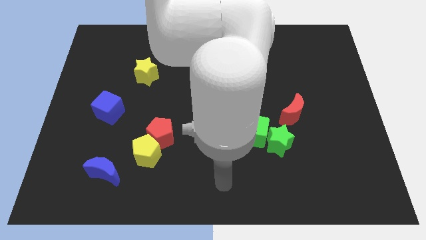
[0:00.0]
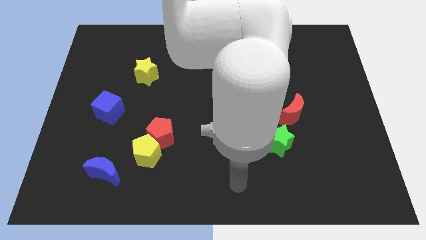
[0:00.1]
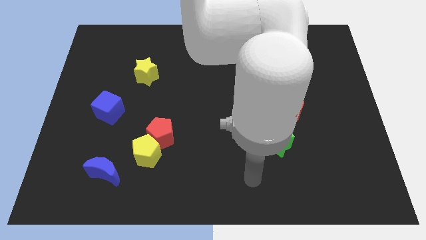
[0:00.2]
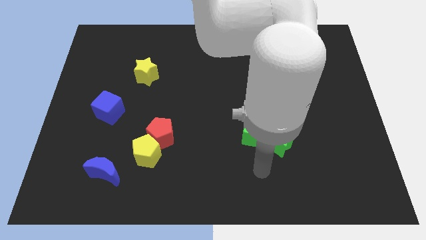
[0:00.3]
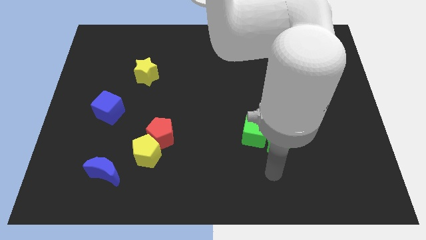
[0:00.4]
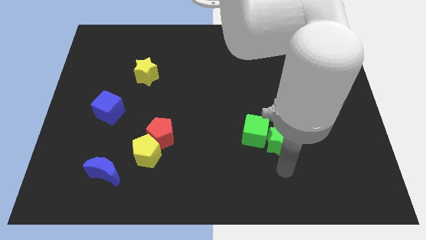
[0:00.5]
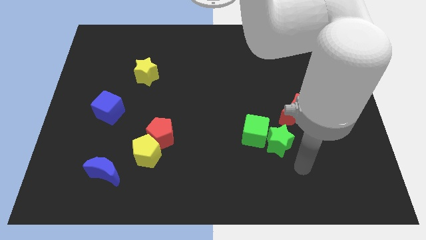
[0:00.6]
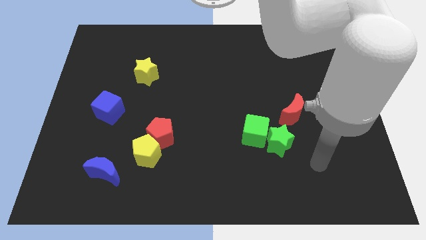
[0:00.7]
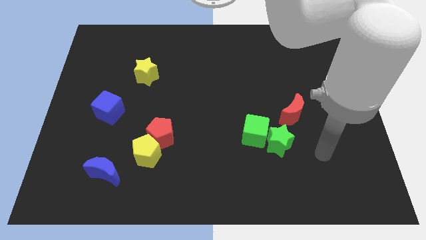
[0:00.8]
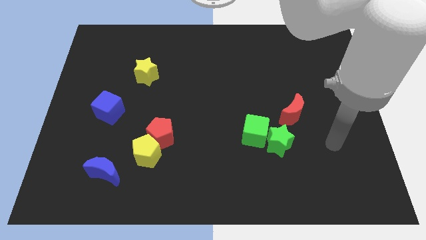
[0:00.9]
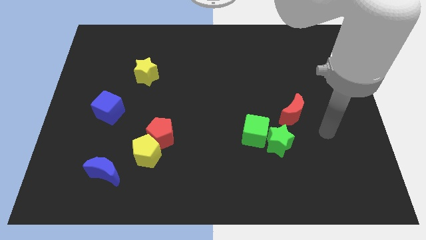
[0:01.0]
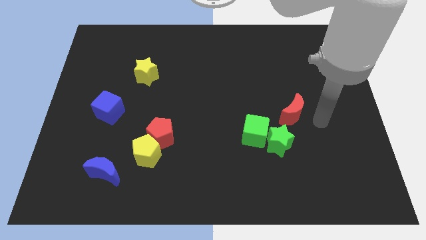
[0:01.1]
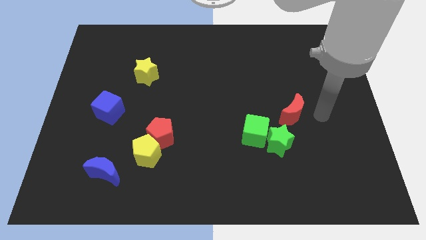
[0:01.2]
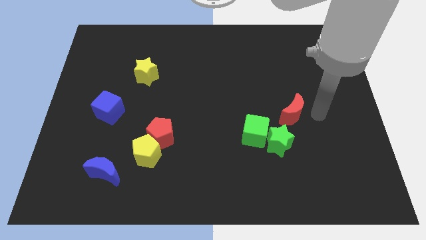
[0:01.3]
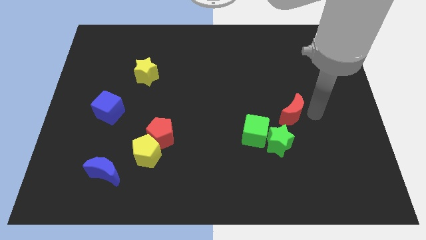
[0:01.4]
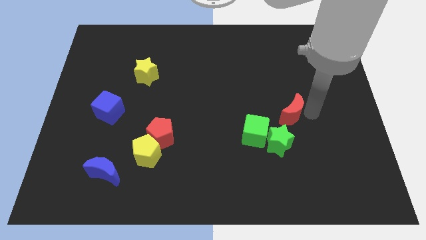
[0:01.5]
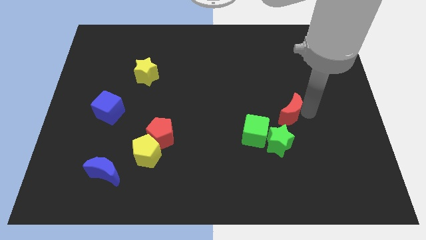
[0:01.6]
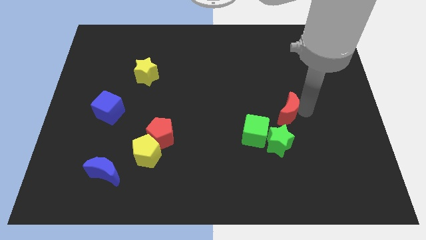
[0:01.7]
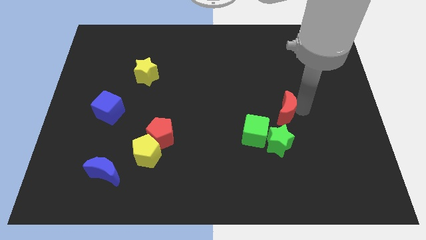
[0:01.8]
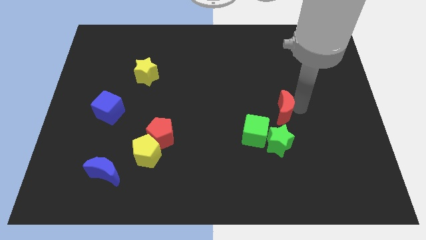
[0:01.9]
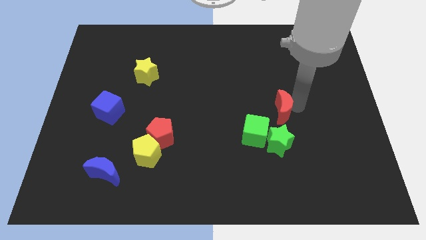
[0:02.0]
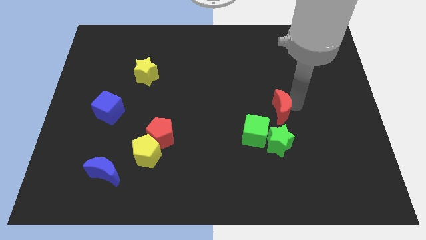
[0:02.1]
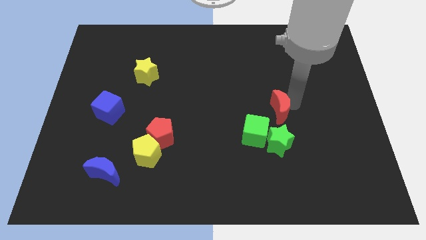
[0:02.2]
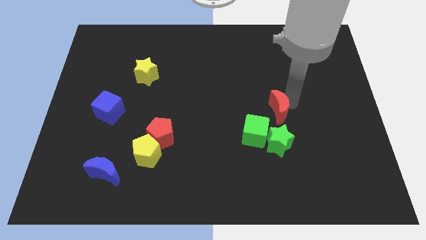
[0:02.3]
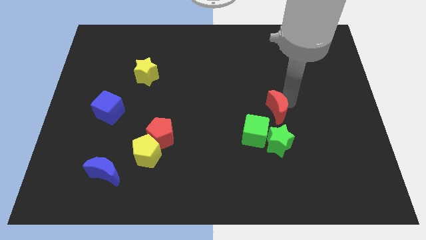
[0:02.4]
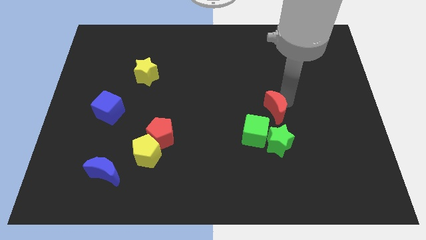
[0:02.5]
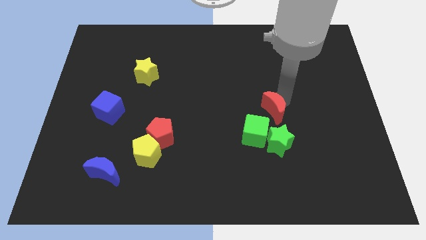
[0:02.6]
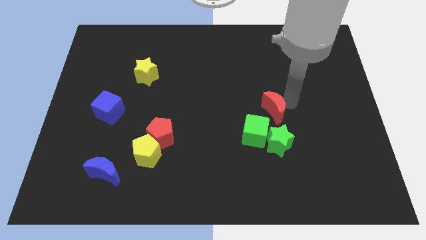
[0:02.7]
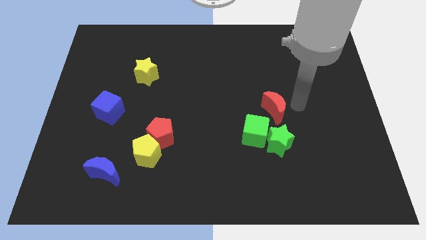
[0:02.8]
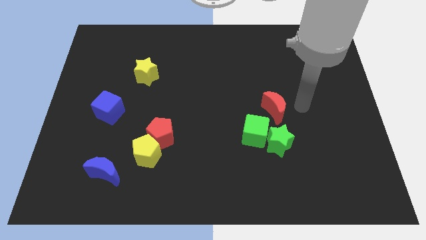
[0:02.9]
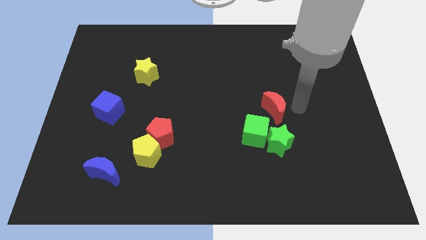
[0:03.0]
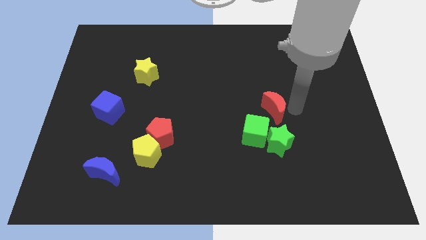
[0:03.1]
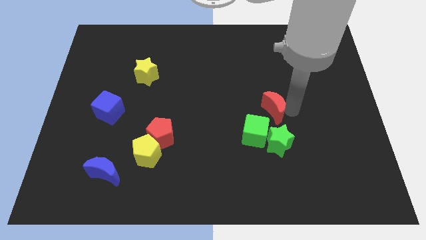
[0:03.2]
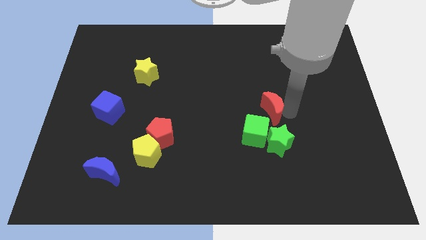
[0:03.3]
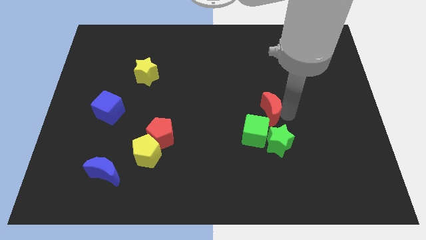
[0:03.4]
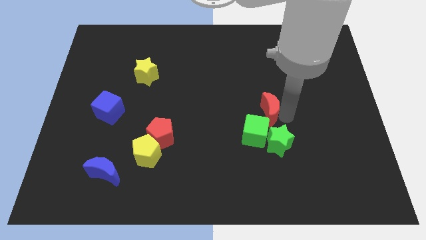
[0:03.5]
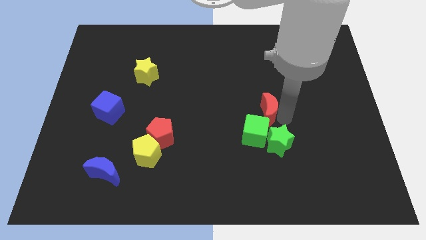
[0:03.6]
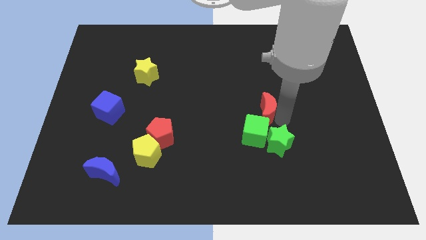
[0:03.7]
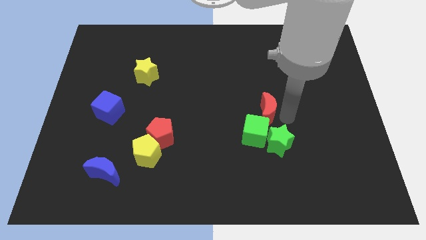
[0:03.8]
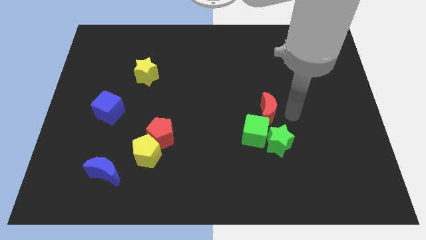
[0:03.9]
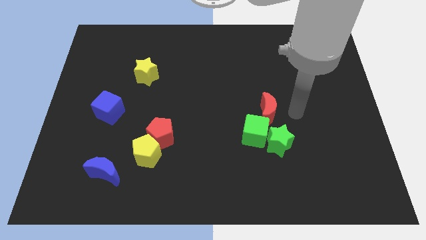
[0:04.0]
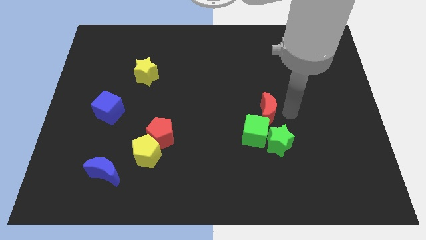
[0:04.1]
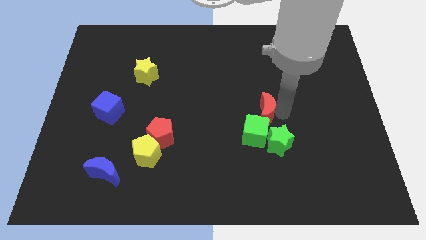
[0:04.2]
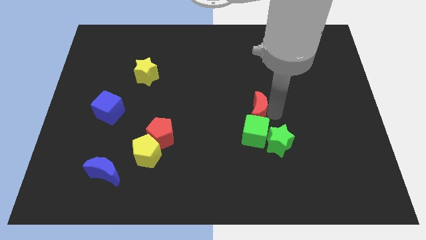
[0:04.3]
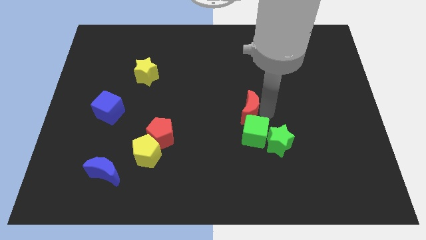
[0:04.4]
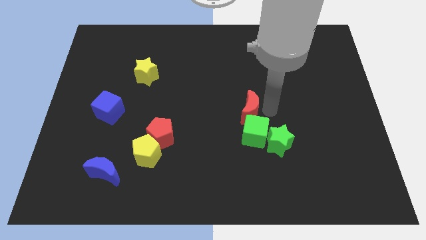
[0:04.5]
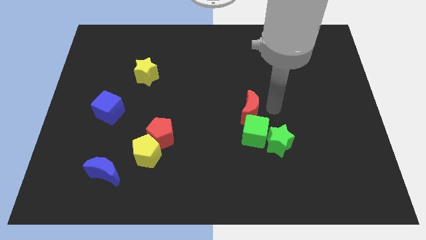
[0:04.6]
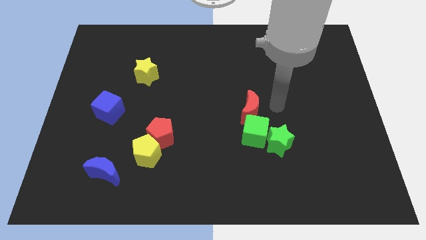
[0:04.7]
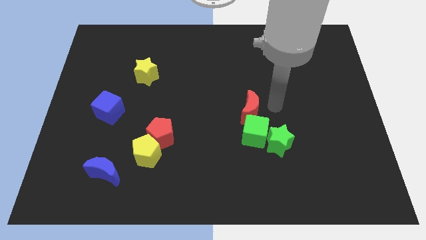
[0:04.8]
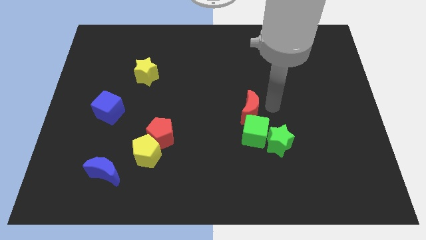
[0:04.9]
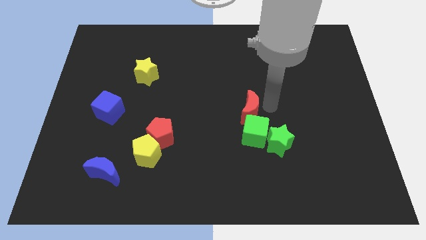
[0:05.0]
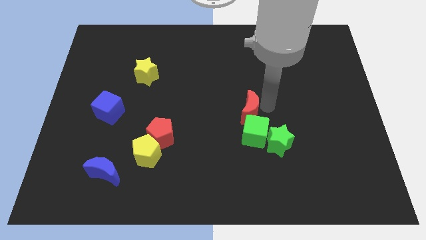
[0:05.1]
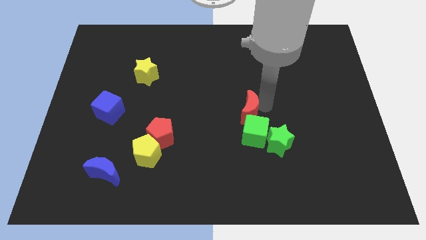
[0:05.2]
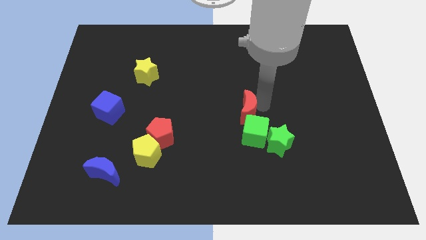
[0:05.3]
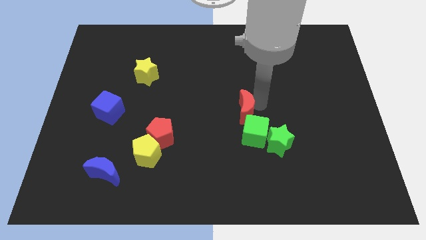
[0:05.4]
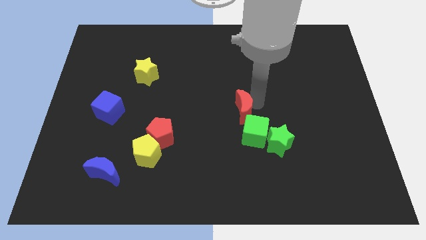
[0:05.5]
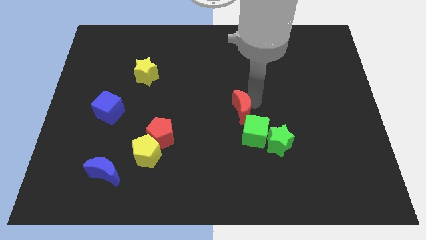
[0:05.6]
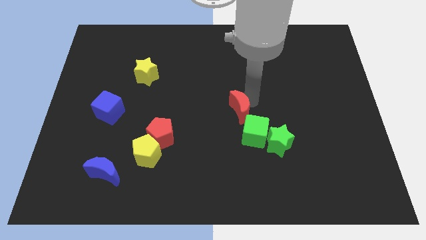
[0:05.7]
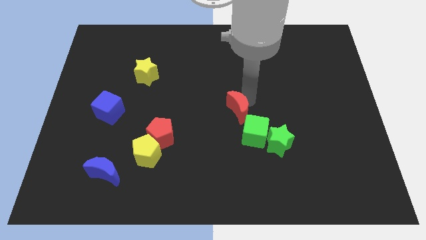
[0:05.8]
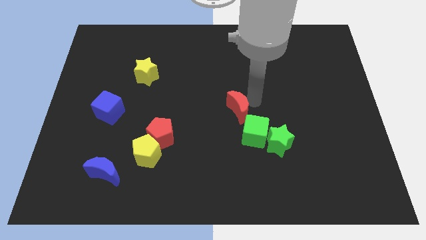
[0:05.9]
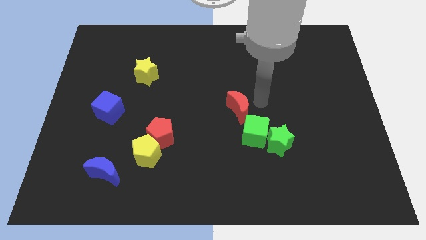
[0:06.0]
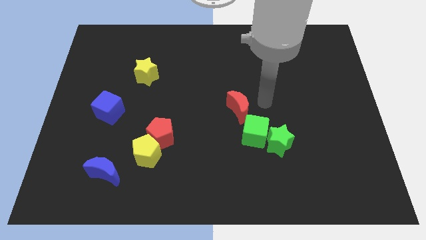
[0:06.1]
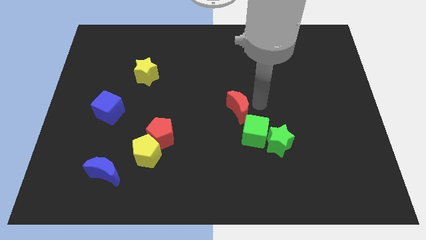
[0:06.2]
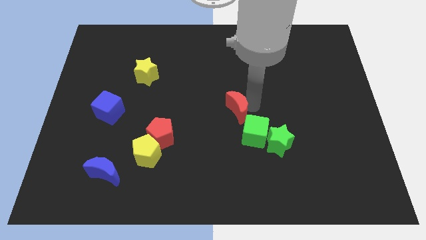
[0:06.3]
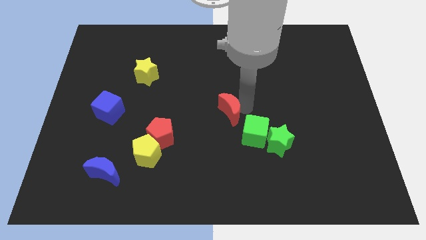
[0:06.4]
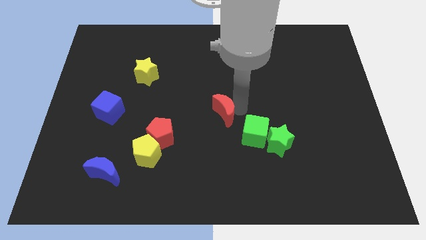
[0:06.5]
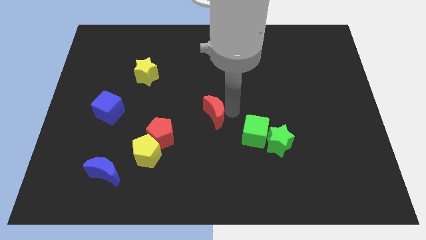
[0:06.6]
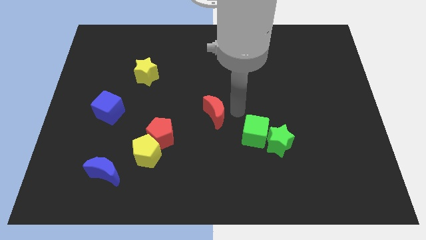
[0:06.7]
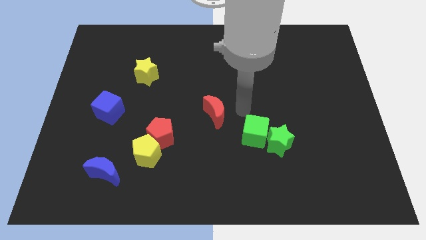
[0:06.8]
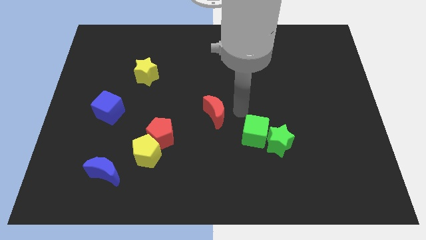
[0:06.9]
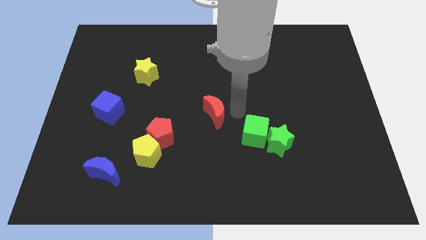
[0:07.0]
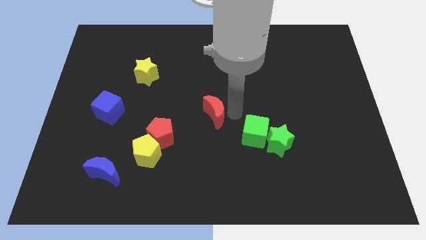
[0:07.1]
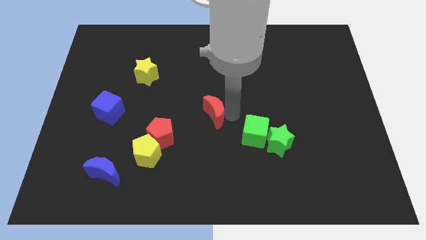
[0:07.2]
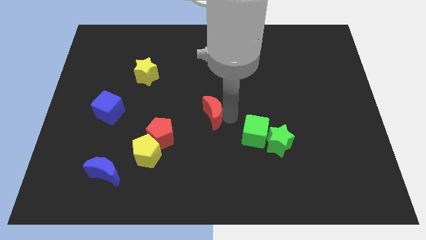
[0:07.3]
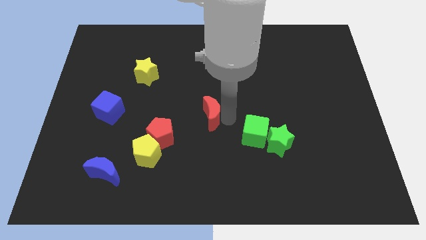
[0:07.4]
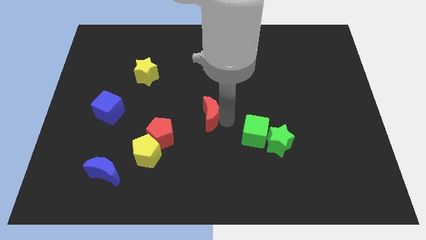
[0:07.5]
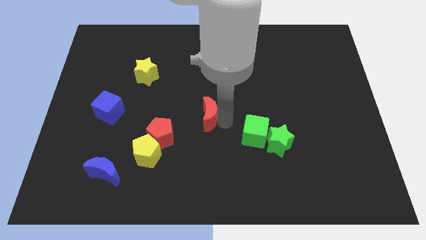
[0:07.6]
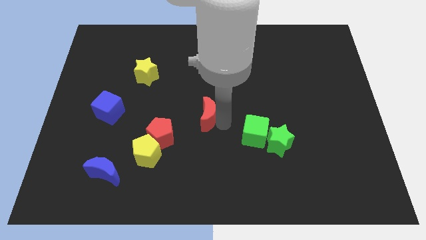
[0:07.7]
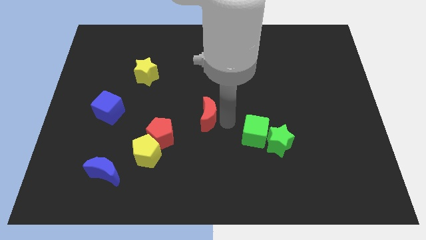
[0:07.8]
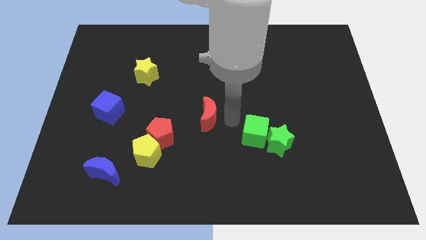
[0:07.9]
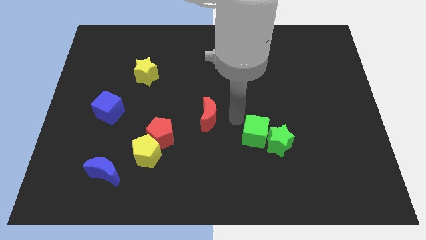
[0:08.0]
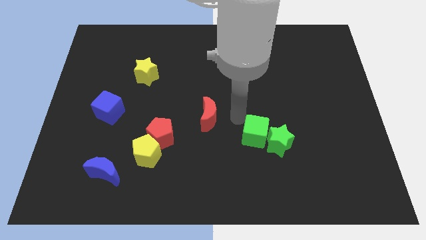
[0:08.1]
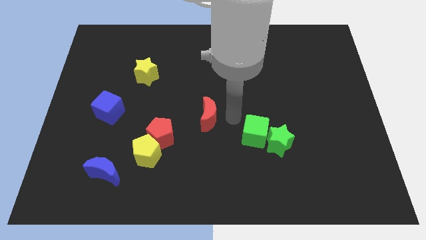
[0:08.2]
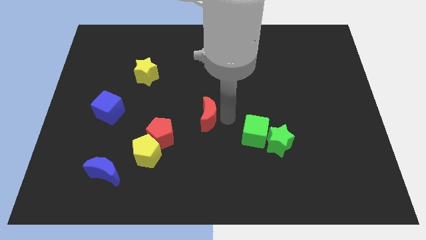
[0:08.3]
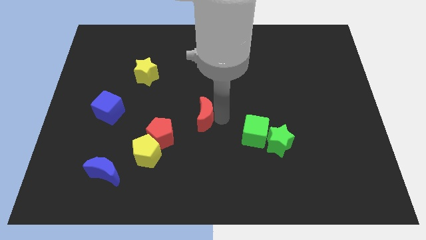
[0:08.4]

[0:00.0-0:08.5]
move the red moon to the left
